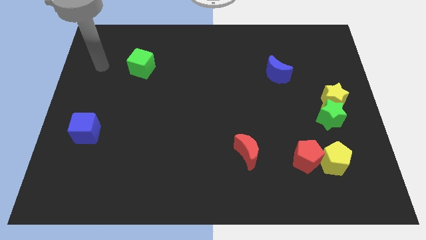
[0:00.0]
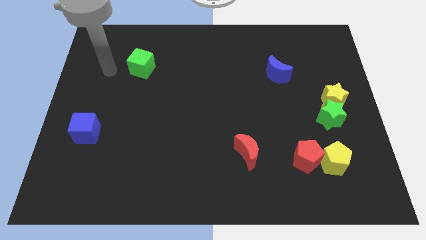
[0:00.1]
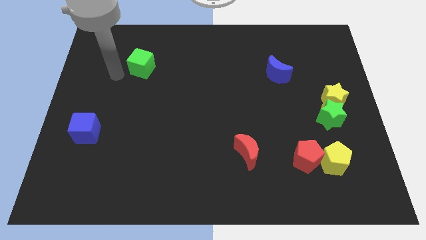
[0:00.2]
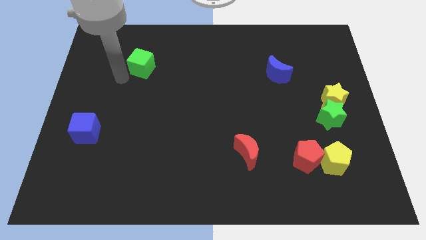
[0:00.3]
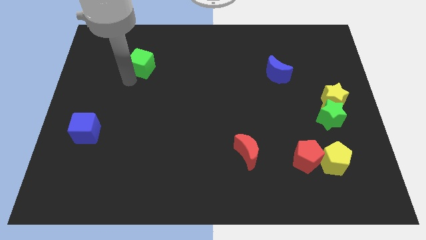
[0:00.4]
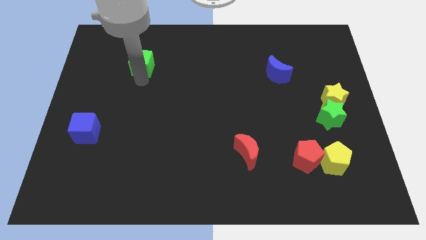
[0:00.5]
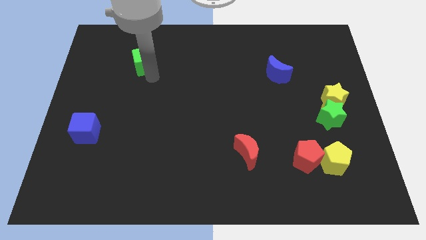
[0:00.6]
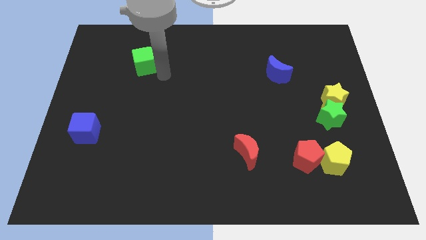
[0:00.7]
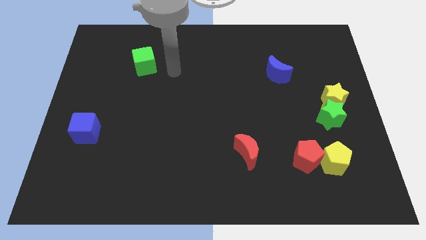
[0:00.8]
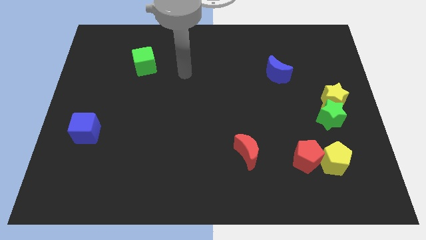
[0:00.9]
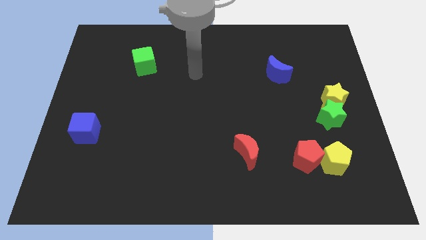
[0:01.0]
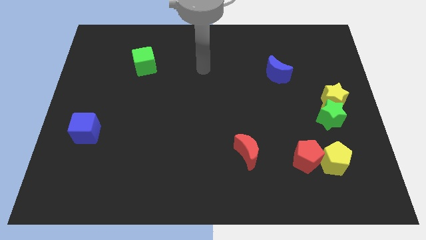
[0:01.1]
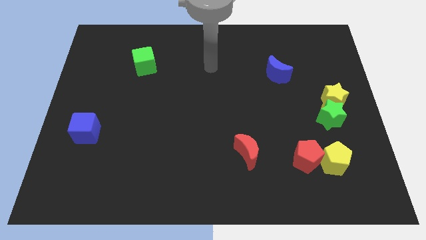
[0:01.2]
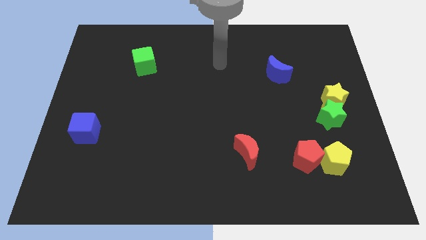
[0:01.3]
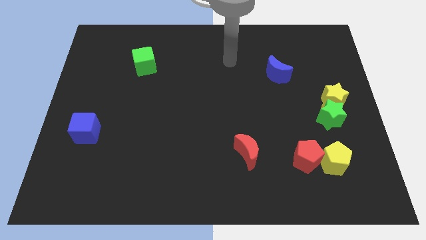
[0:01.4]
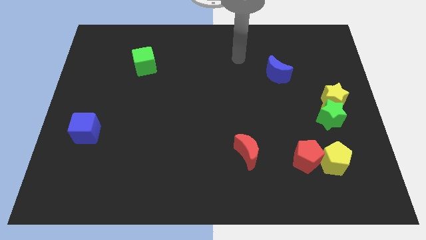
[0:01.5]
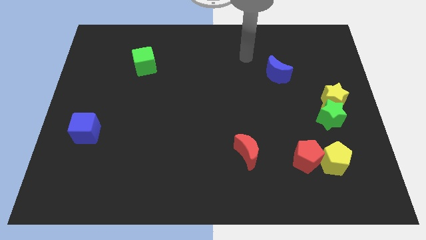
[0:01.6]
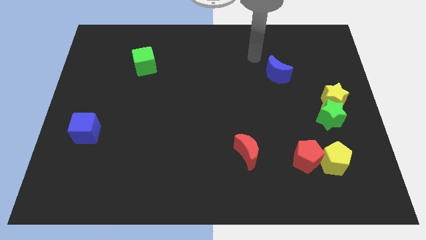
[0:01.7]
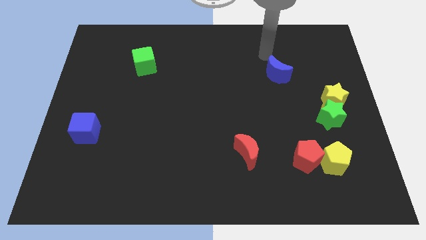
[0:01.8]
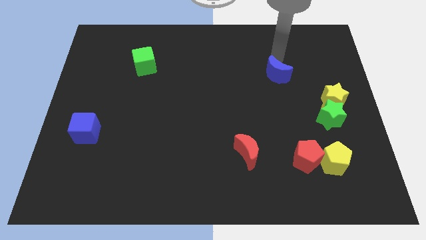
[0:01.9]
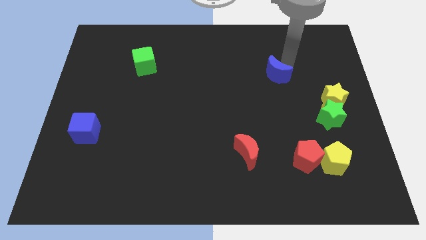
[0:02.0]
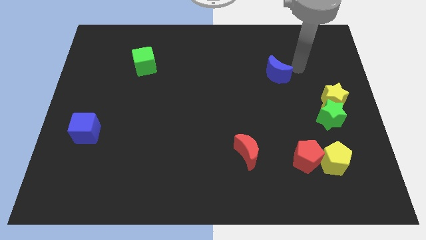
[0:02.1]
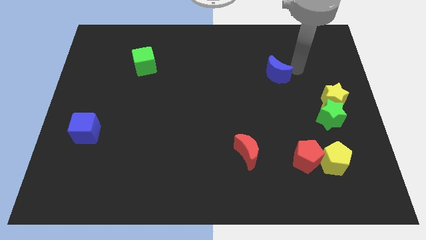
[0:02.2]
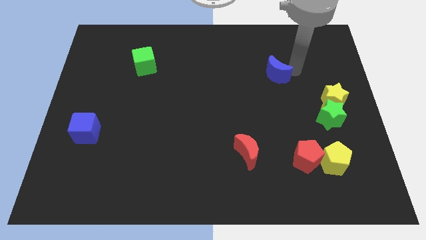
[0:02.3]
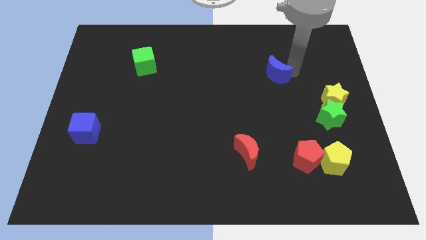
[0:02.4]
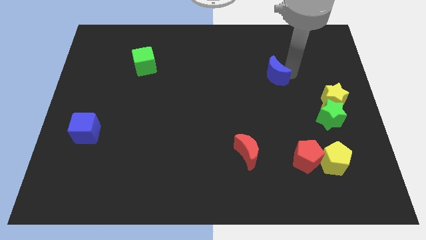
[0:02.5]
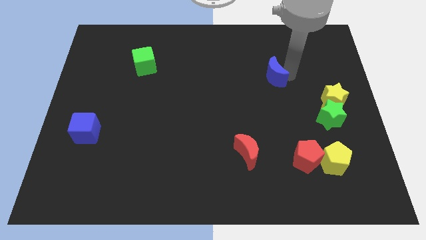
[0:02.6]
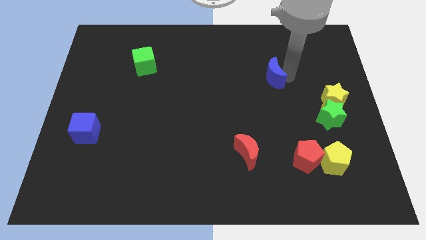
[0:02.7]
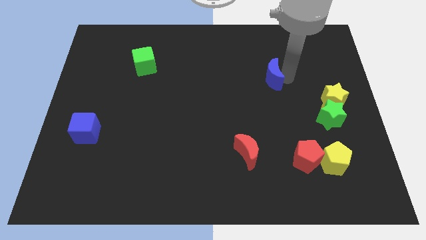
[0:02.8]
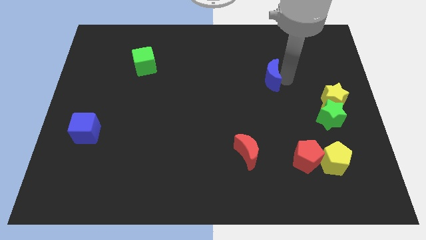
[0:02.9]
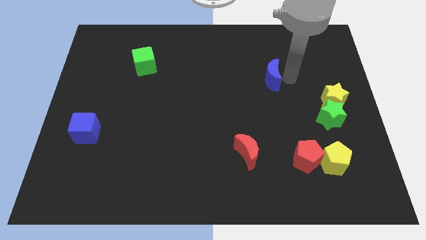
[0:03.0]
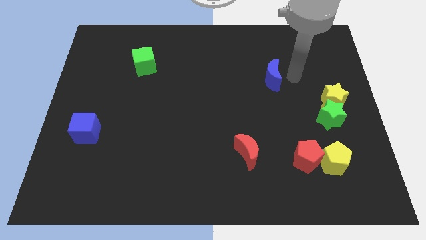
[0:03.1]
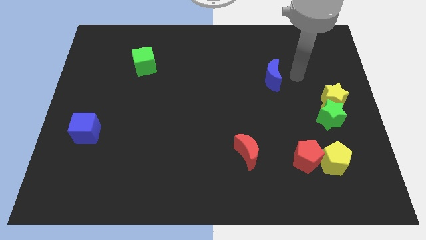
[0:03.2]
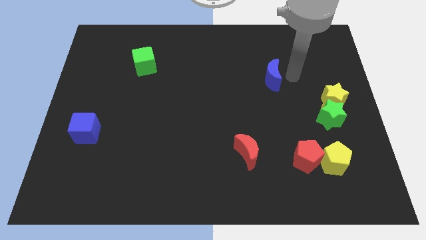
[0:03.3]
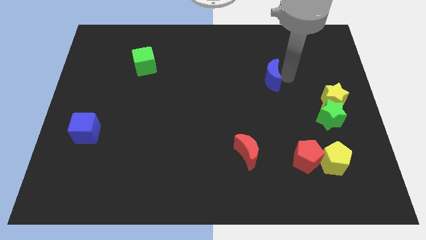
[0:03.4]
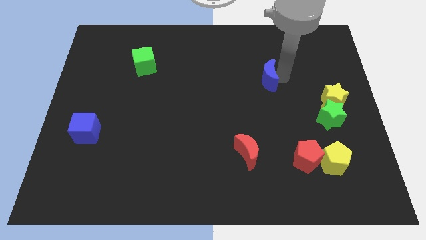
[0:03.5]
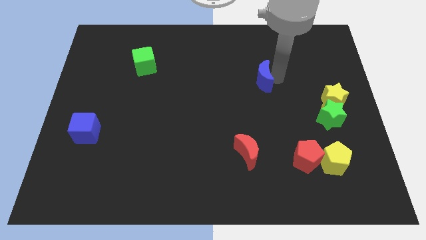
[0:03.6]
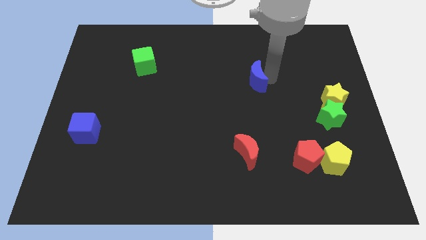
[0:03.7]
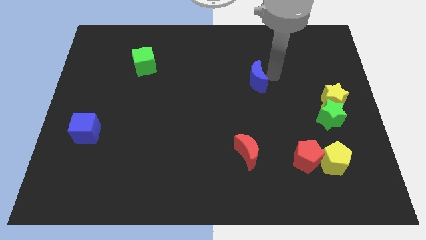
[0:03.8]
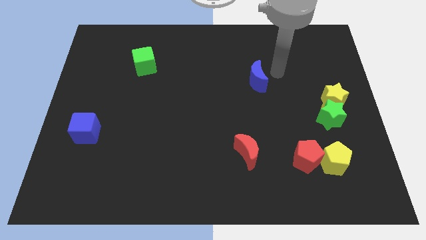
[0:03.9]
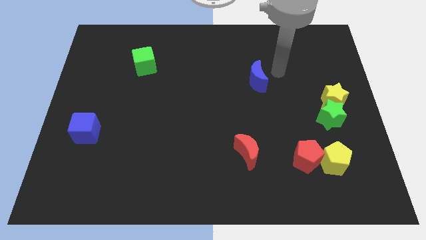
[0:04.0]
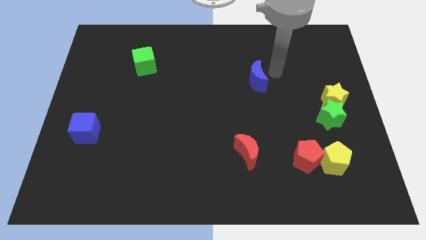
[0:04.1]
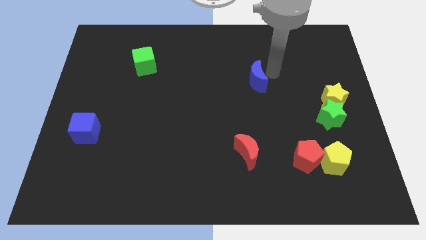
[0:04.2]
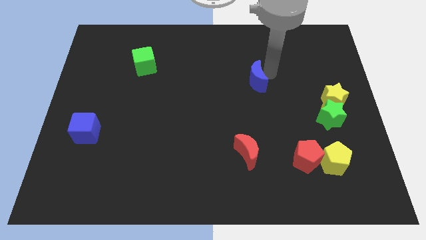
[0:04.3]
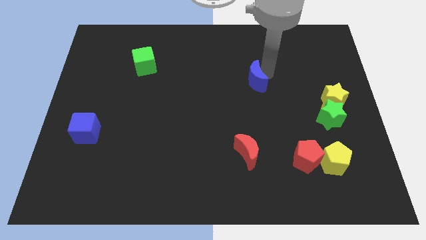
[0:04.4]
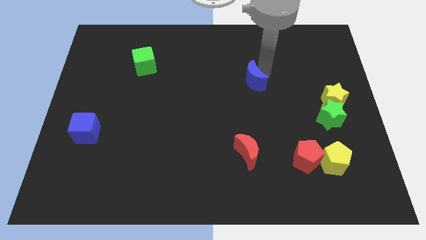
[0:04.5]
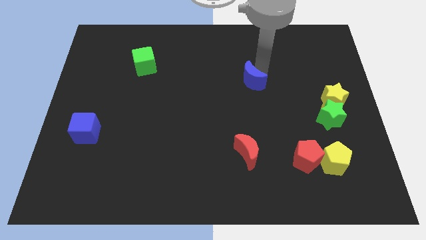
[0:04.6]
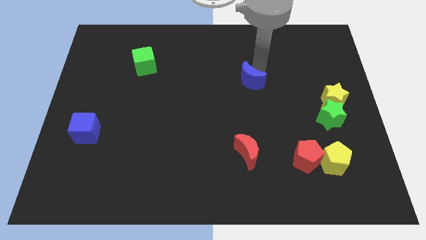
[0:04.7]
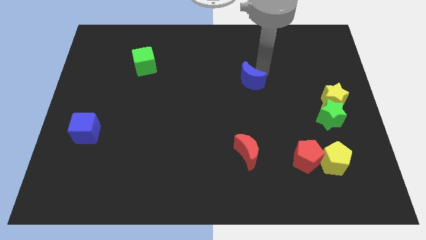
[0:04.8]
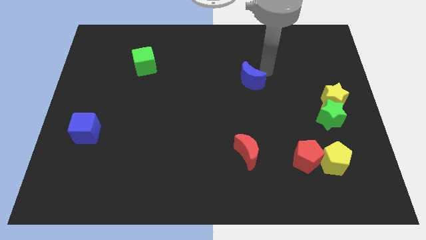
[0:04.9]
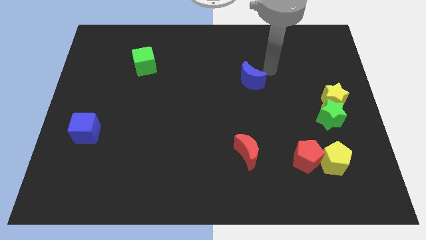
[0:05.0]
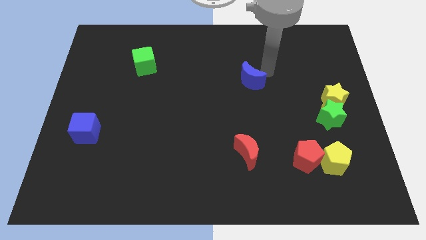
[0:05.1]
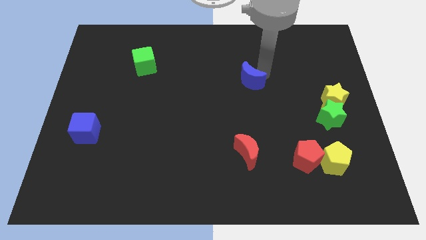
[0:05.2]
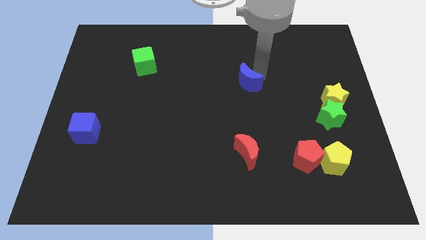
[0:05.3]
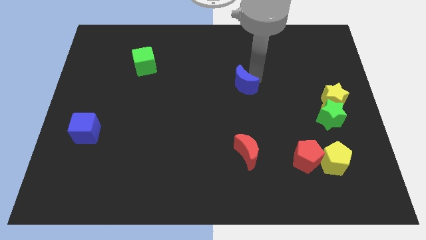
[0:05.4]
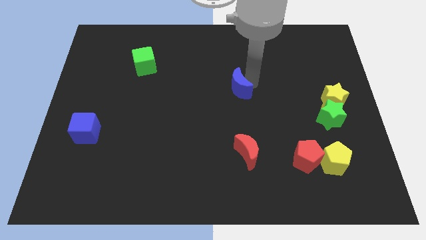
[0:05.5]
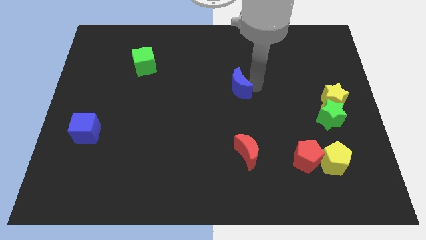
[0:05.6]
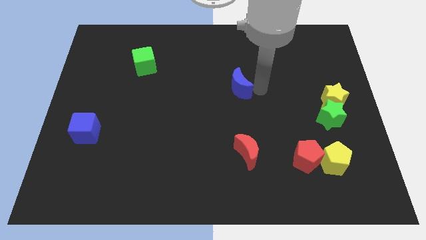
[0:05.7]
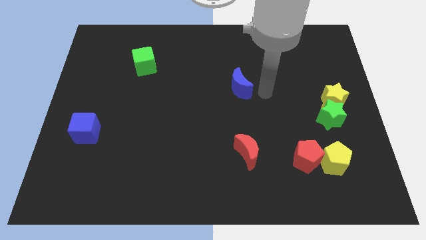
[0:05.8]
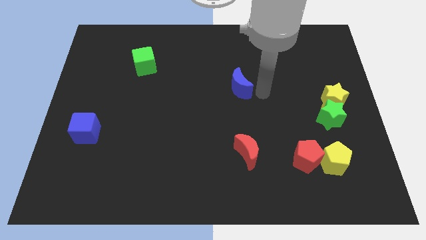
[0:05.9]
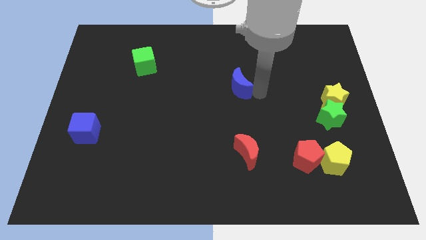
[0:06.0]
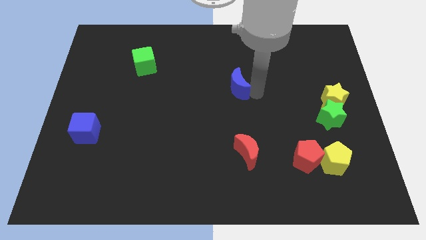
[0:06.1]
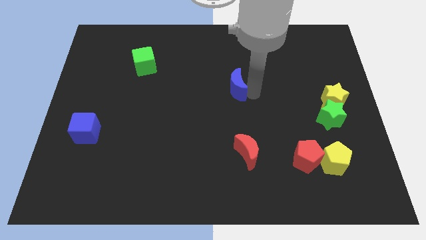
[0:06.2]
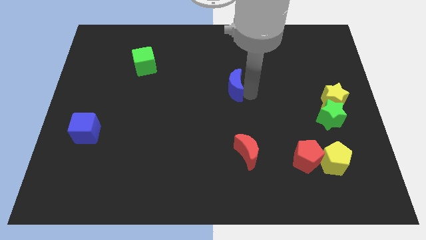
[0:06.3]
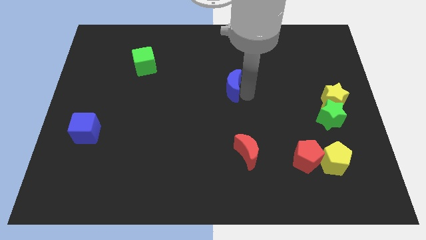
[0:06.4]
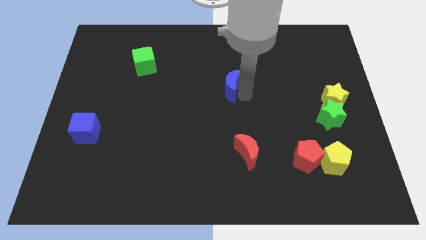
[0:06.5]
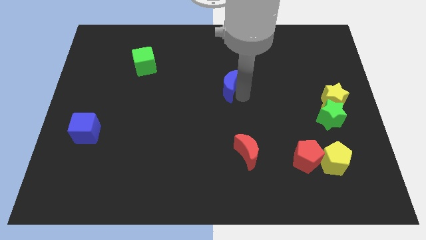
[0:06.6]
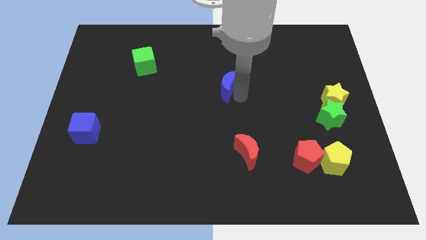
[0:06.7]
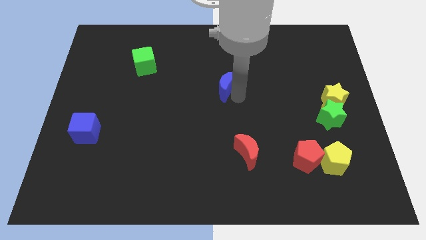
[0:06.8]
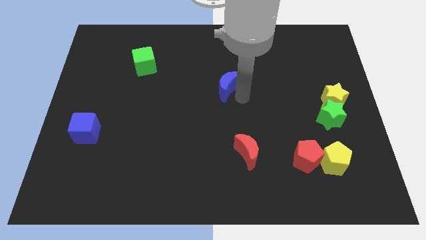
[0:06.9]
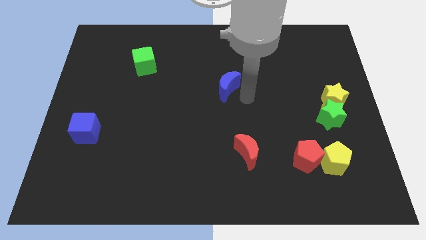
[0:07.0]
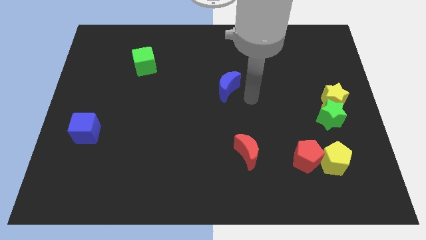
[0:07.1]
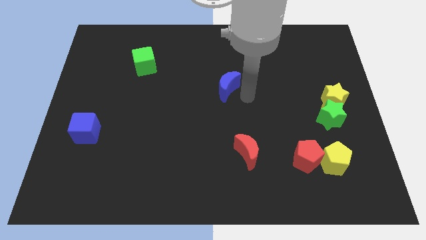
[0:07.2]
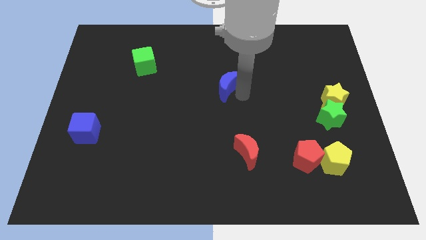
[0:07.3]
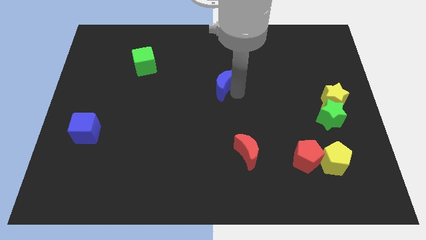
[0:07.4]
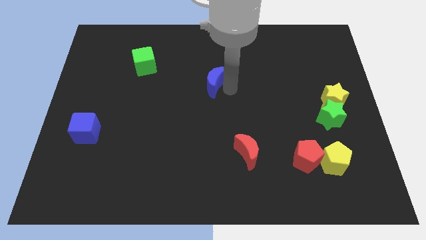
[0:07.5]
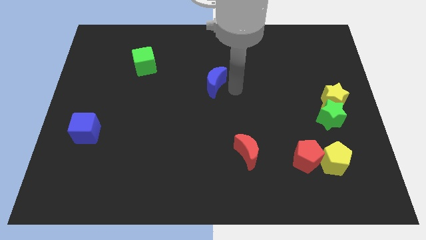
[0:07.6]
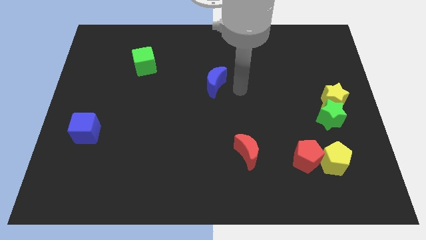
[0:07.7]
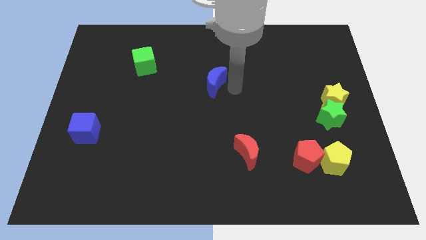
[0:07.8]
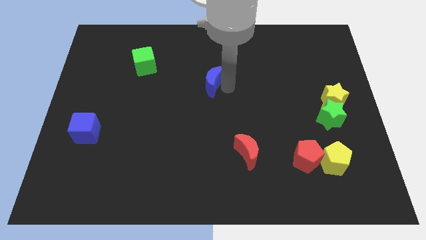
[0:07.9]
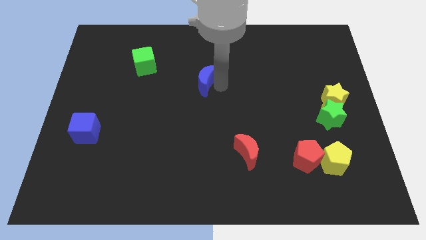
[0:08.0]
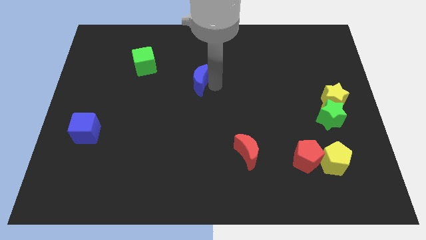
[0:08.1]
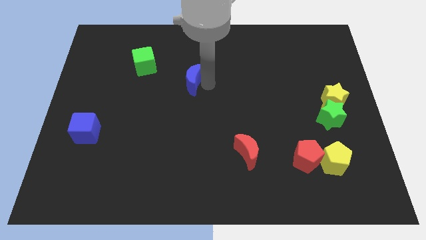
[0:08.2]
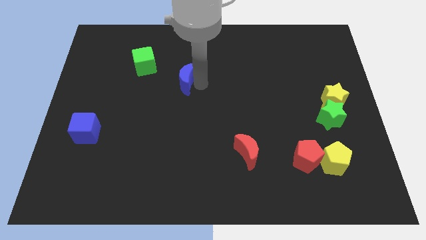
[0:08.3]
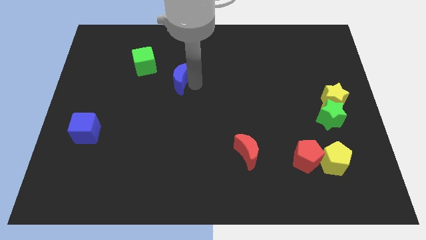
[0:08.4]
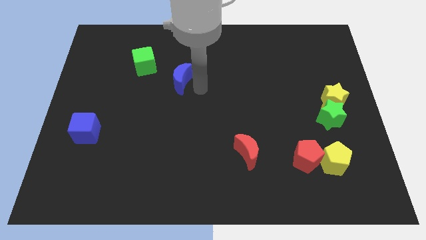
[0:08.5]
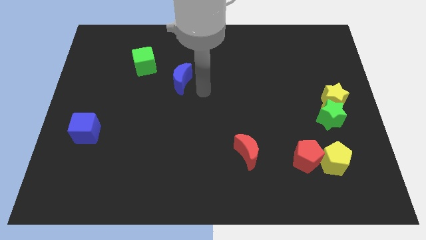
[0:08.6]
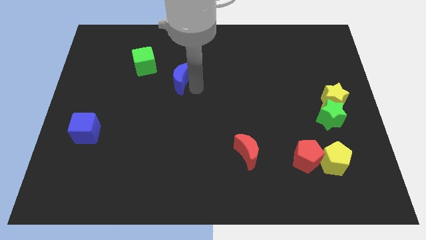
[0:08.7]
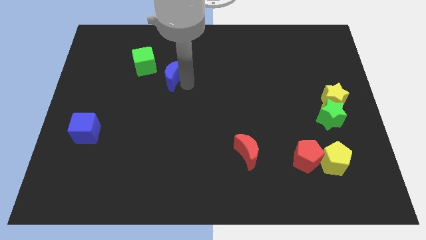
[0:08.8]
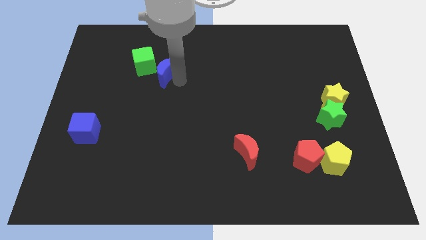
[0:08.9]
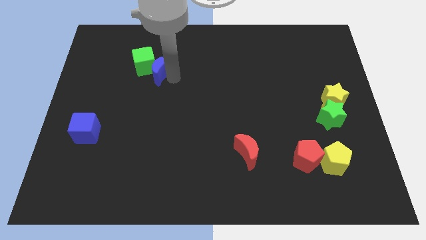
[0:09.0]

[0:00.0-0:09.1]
slide the blue moon towards the green cube
